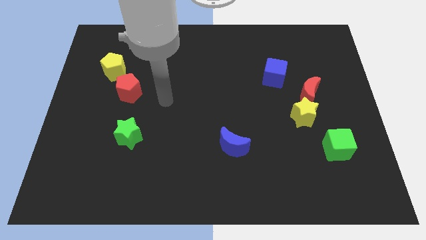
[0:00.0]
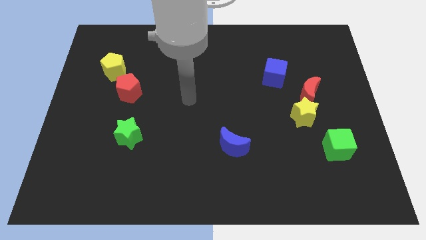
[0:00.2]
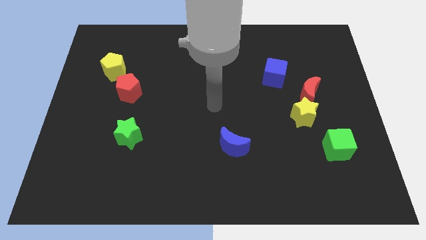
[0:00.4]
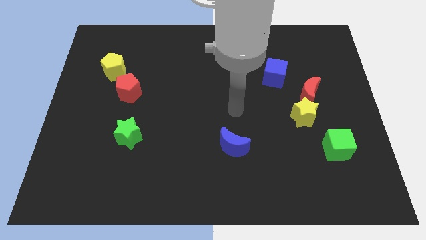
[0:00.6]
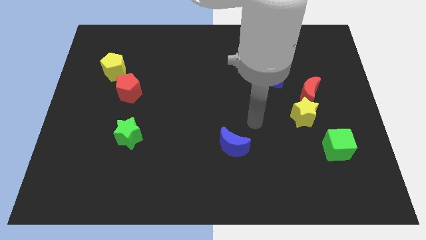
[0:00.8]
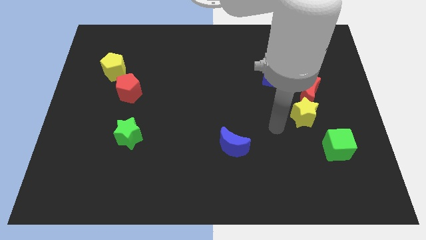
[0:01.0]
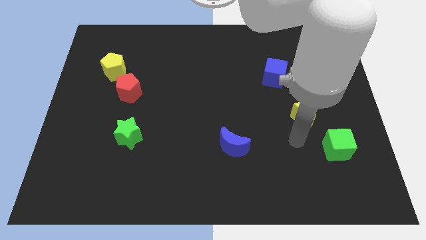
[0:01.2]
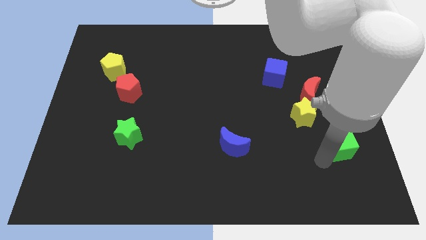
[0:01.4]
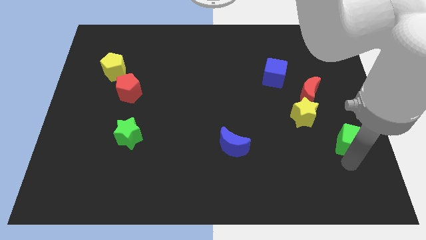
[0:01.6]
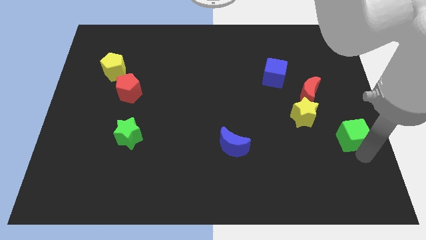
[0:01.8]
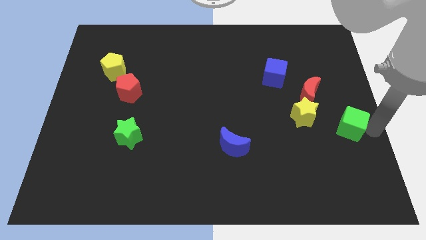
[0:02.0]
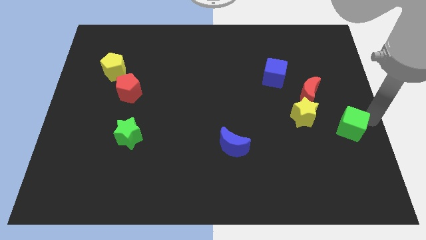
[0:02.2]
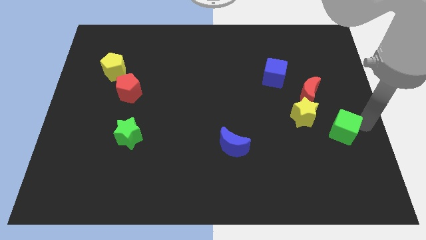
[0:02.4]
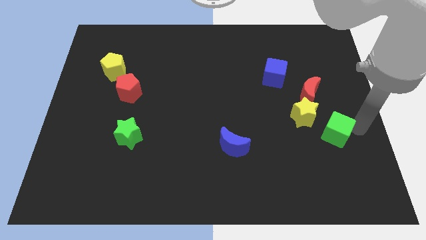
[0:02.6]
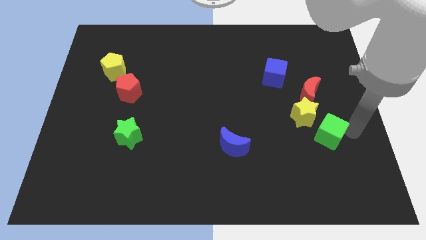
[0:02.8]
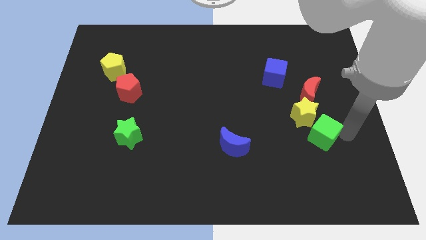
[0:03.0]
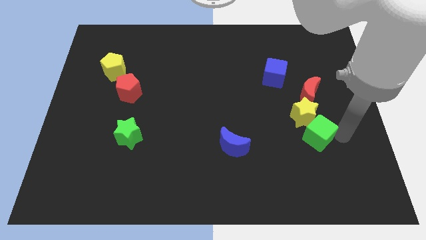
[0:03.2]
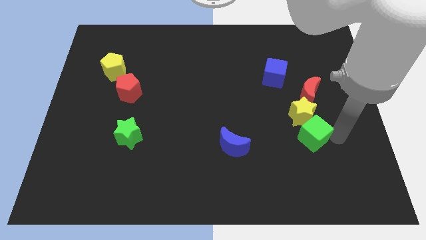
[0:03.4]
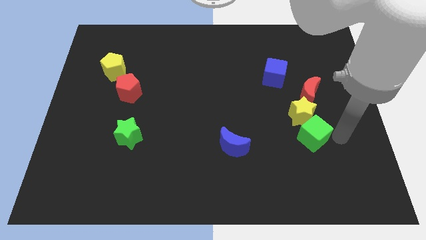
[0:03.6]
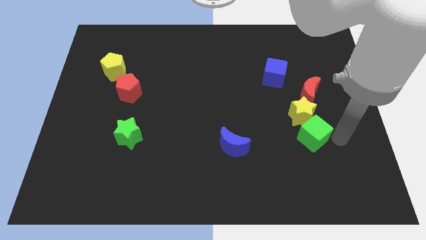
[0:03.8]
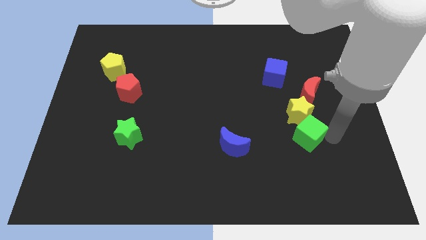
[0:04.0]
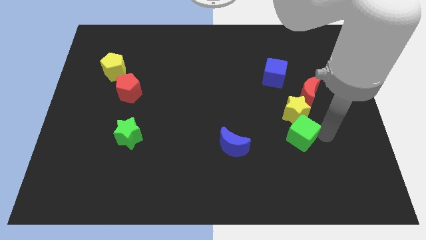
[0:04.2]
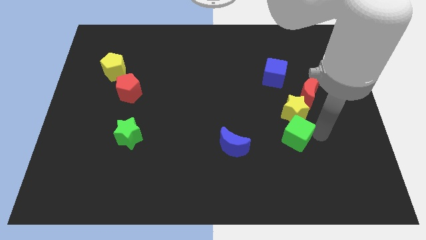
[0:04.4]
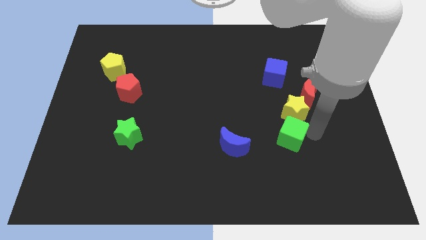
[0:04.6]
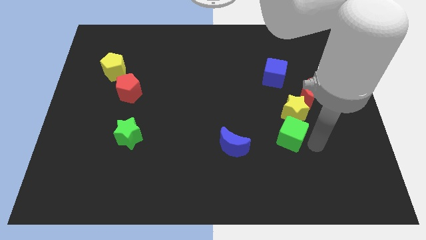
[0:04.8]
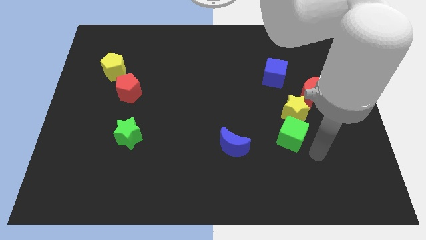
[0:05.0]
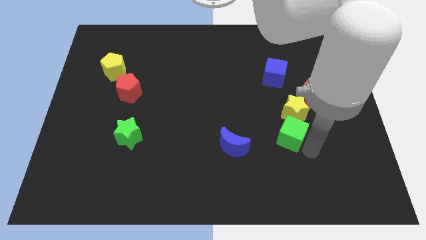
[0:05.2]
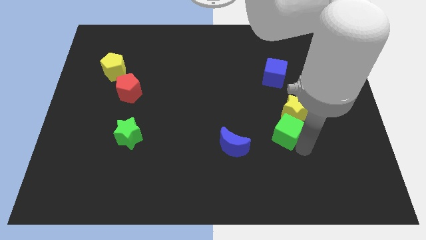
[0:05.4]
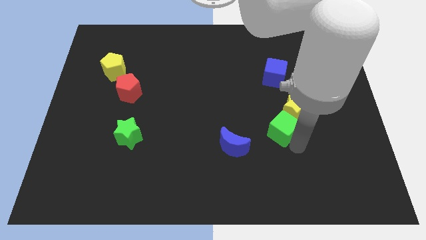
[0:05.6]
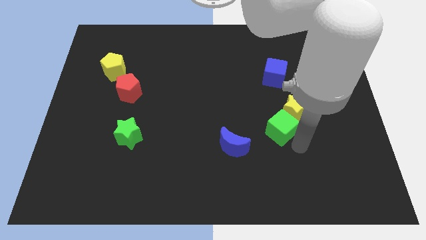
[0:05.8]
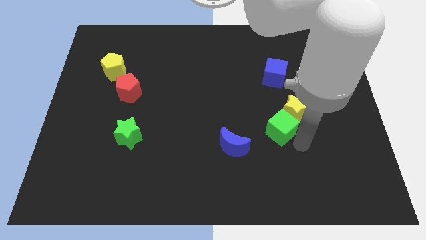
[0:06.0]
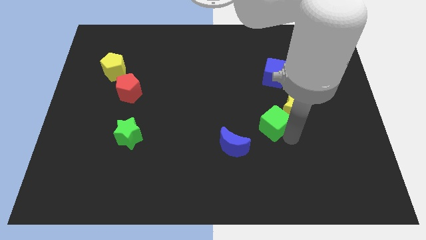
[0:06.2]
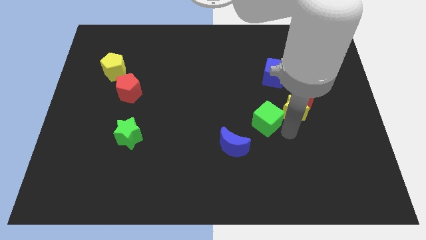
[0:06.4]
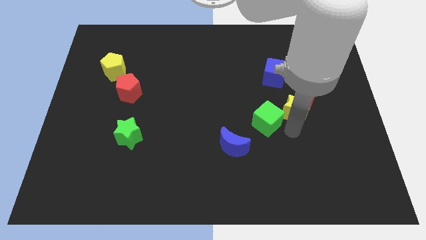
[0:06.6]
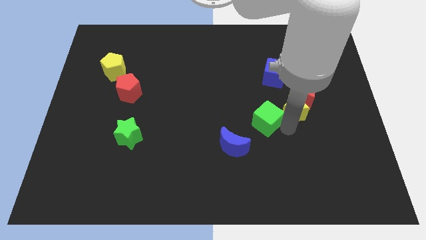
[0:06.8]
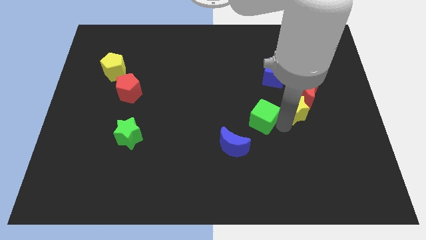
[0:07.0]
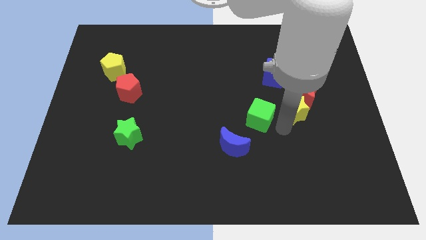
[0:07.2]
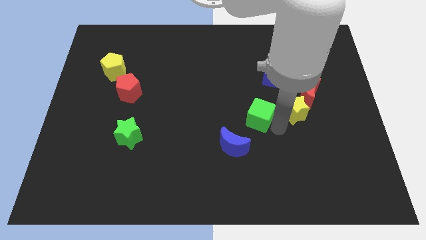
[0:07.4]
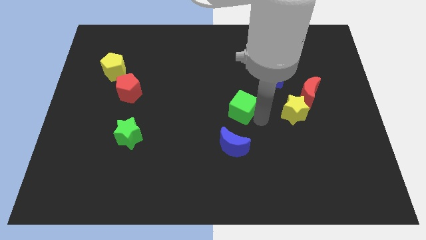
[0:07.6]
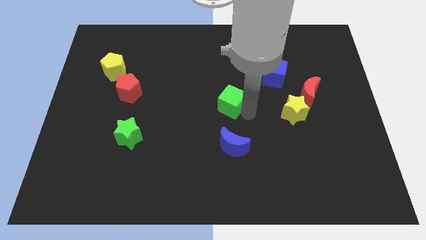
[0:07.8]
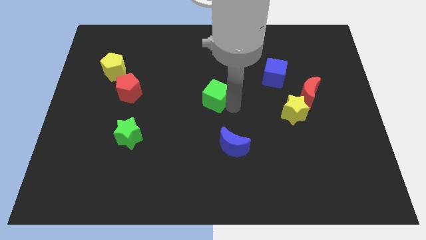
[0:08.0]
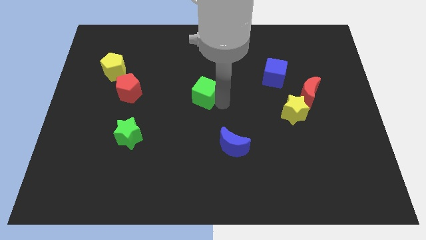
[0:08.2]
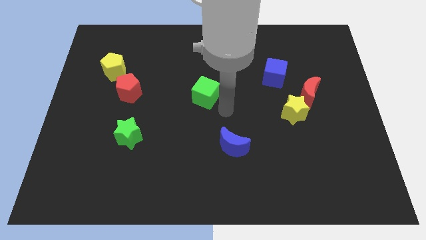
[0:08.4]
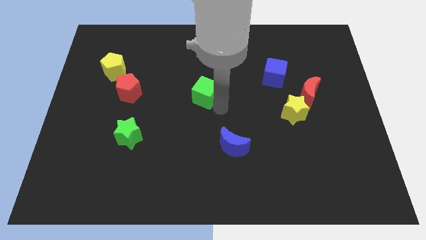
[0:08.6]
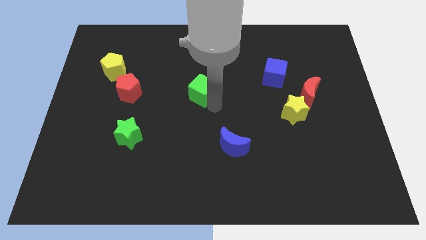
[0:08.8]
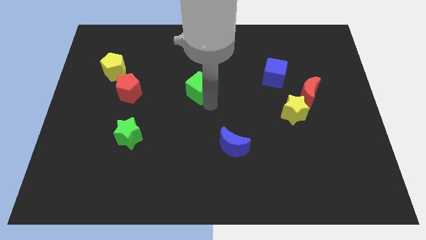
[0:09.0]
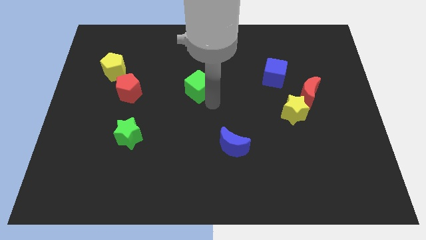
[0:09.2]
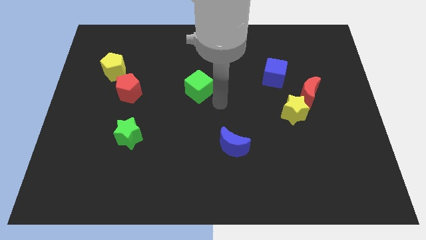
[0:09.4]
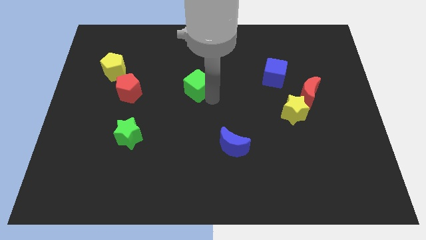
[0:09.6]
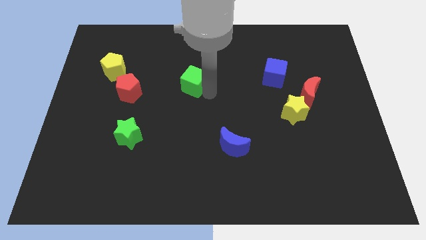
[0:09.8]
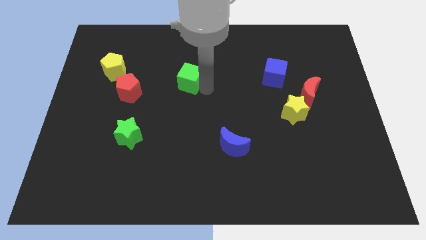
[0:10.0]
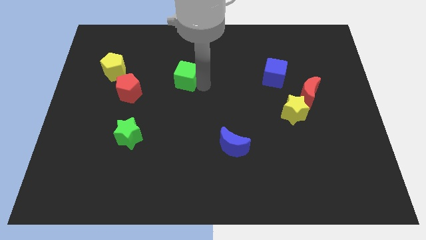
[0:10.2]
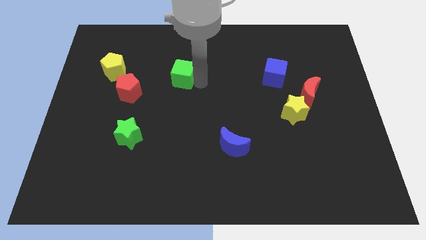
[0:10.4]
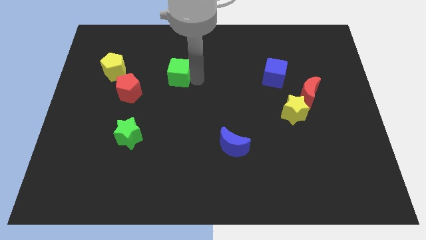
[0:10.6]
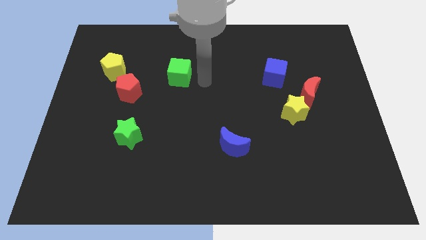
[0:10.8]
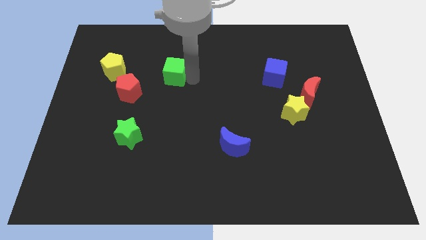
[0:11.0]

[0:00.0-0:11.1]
put the green cube to the right side of the yellow pentagon

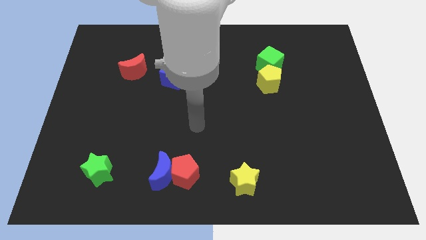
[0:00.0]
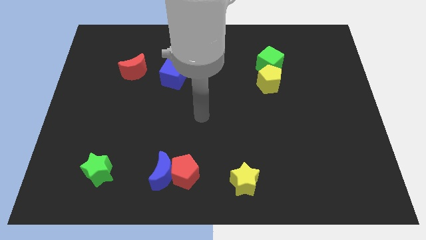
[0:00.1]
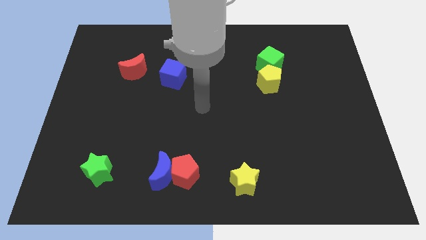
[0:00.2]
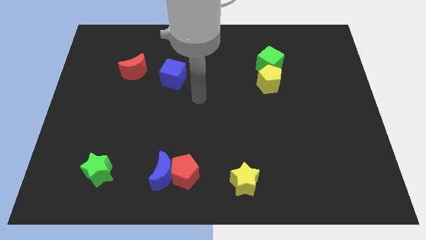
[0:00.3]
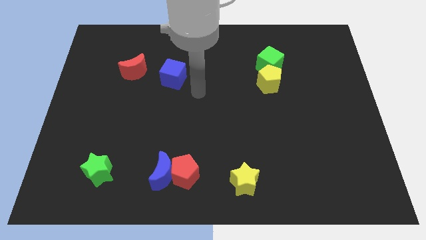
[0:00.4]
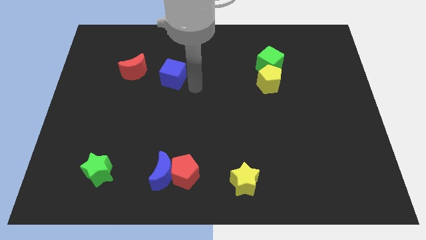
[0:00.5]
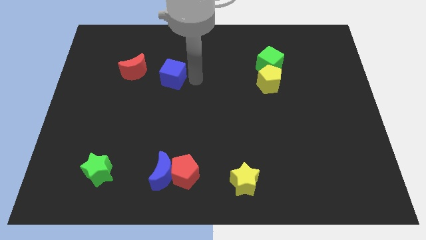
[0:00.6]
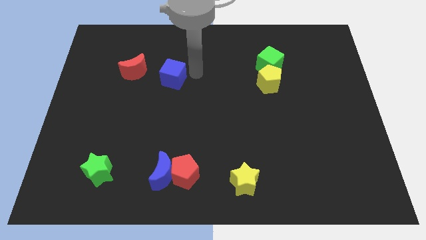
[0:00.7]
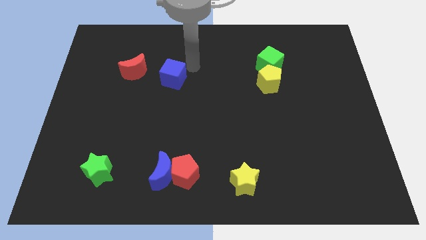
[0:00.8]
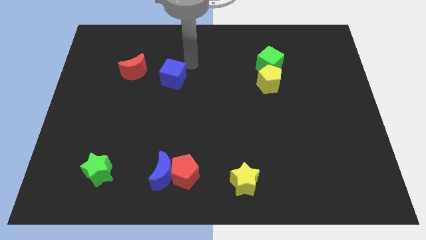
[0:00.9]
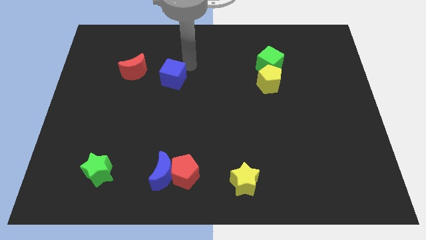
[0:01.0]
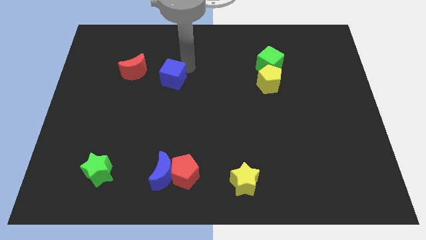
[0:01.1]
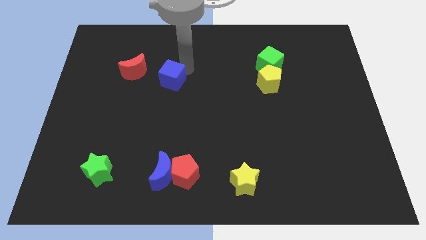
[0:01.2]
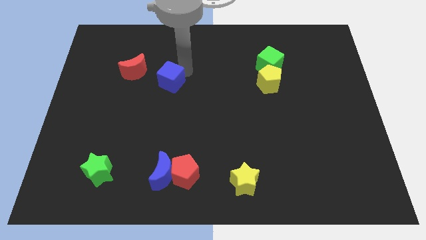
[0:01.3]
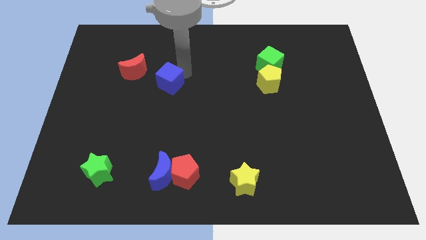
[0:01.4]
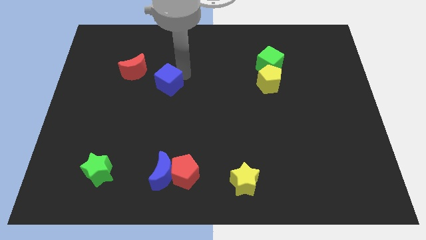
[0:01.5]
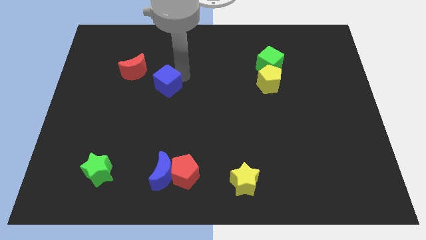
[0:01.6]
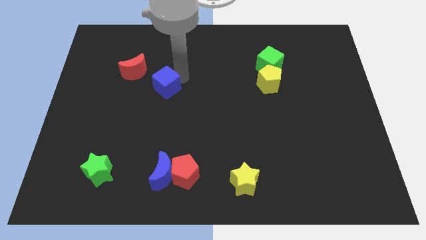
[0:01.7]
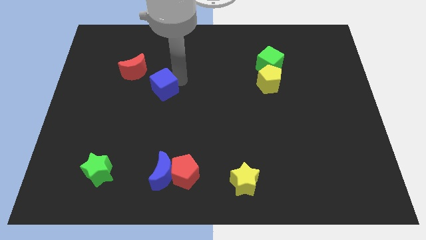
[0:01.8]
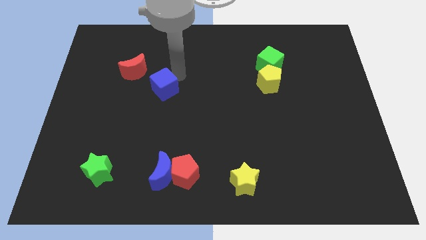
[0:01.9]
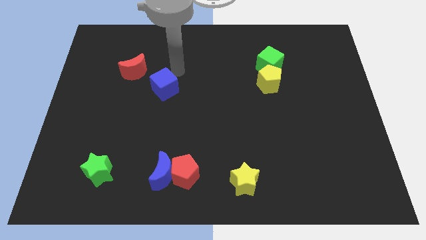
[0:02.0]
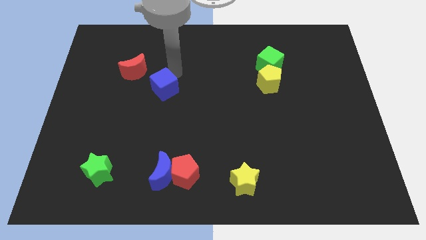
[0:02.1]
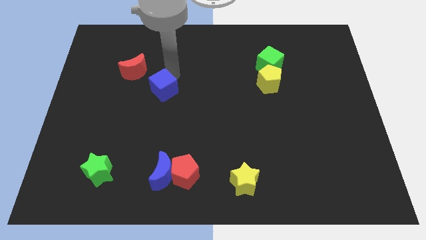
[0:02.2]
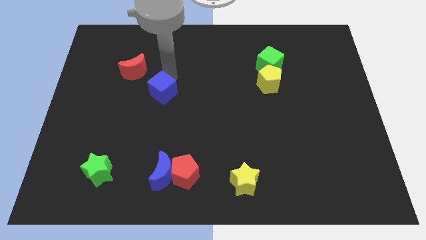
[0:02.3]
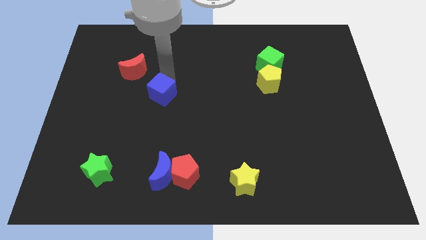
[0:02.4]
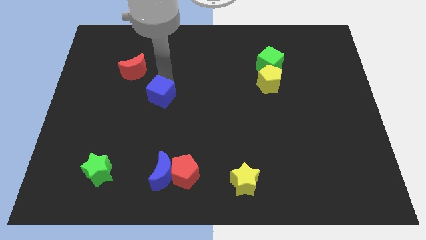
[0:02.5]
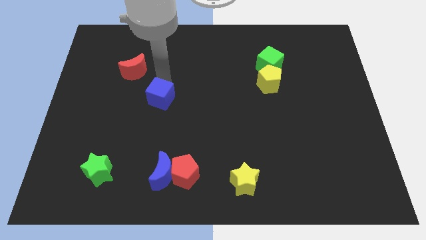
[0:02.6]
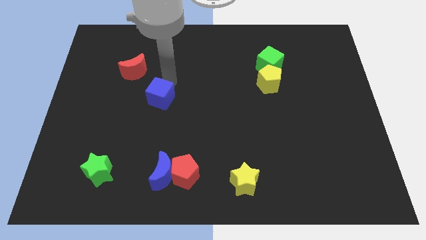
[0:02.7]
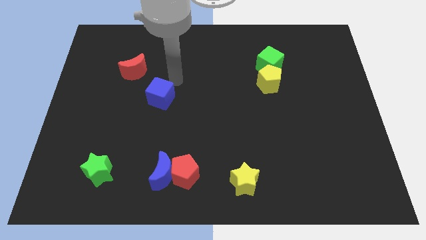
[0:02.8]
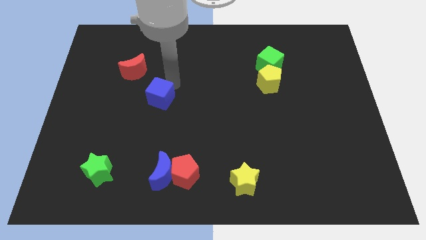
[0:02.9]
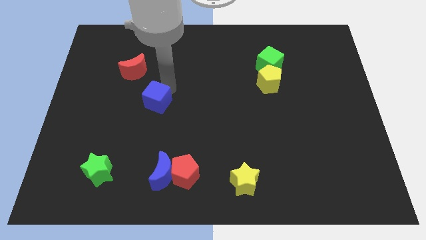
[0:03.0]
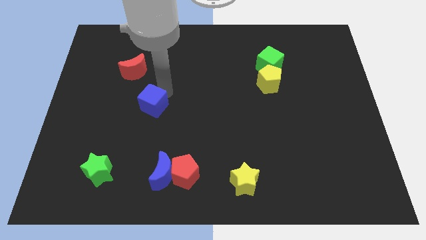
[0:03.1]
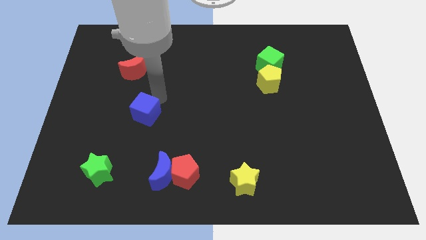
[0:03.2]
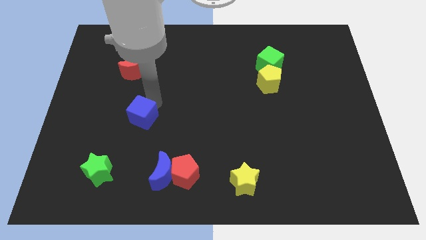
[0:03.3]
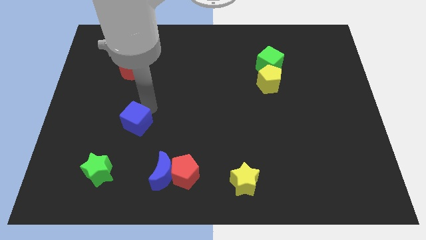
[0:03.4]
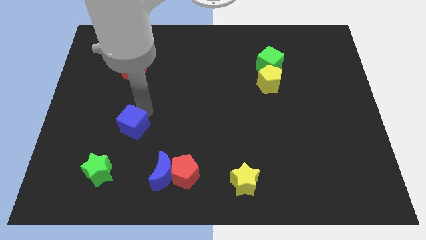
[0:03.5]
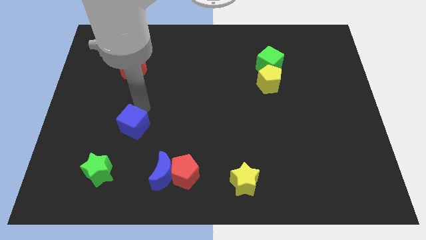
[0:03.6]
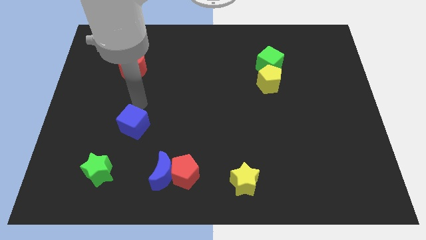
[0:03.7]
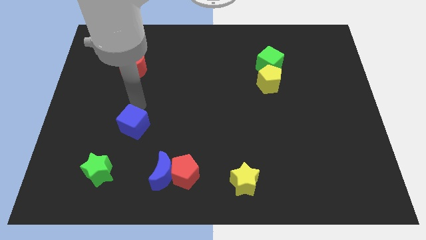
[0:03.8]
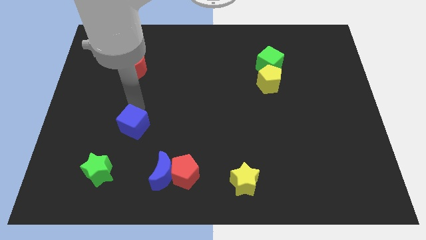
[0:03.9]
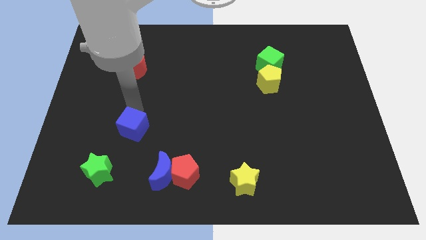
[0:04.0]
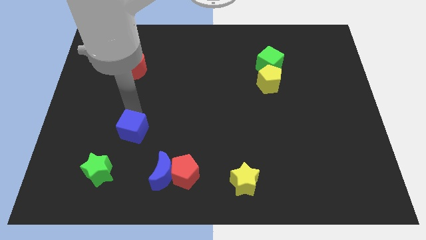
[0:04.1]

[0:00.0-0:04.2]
put the blue cube to the top right of the green star
